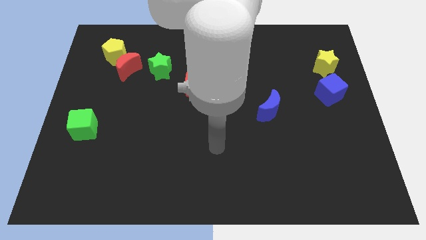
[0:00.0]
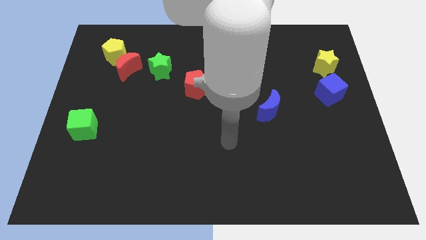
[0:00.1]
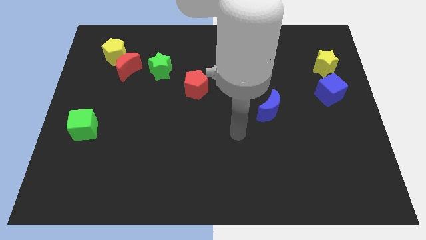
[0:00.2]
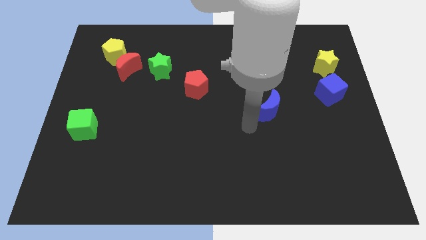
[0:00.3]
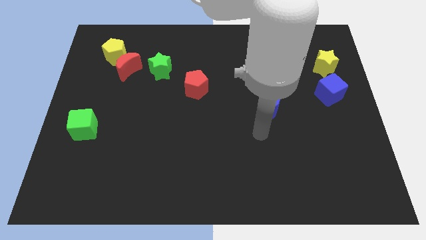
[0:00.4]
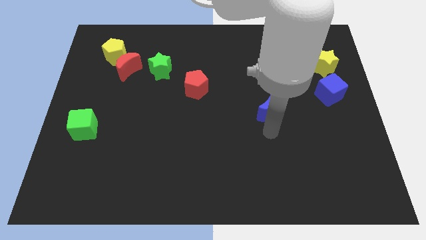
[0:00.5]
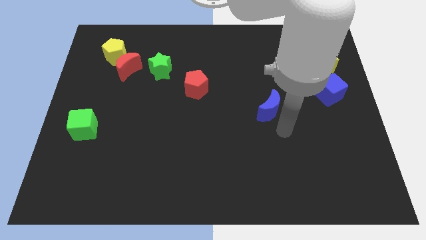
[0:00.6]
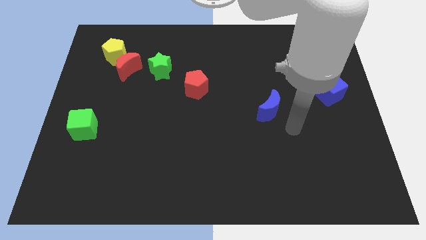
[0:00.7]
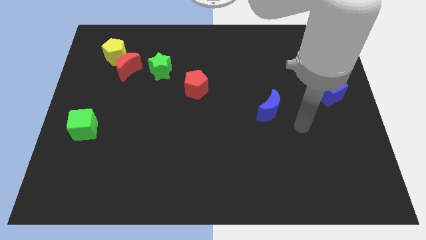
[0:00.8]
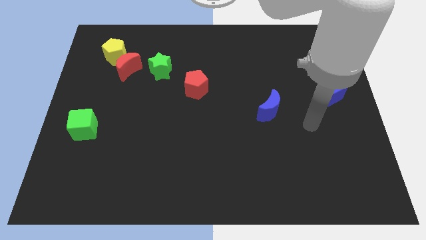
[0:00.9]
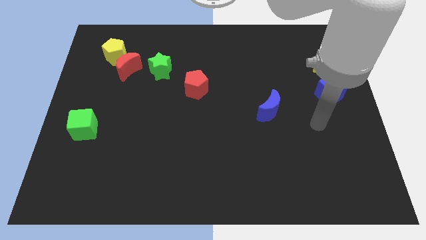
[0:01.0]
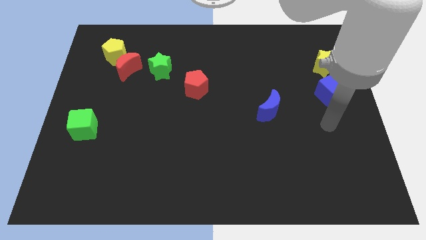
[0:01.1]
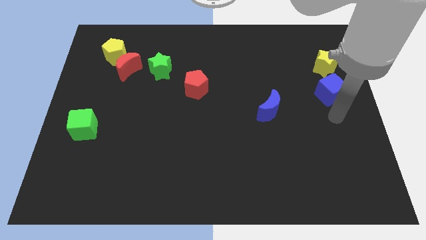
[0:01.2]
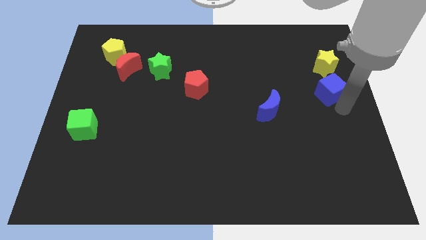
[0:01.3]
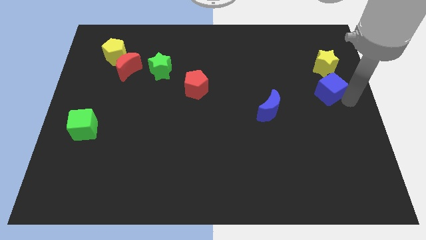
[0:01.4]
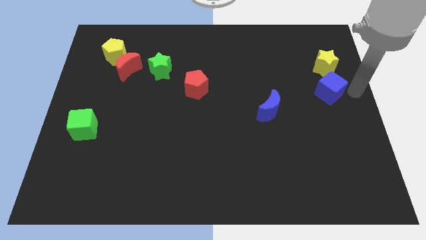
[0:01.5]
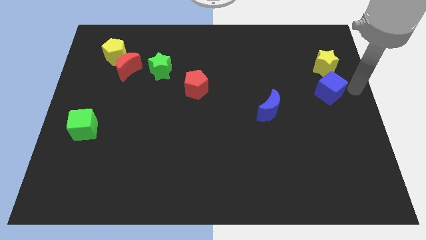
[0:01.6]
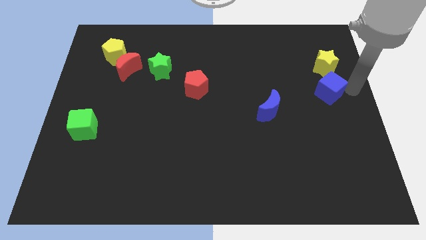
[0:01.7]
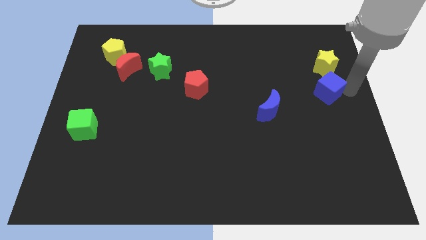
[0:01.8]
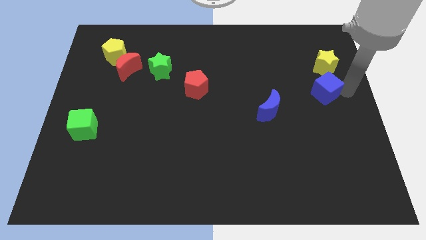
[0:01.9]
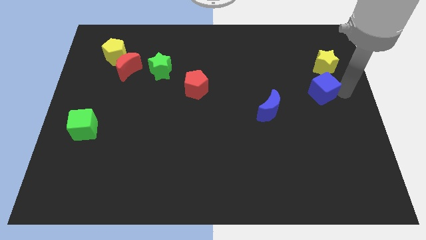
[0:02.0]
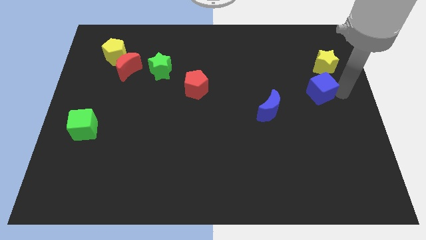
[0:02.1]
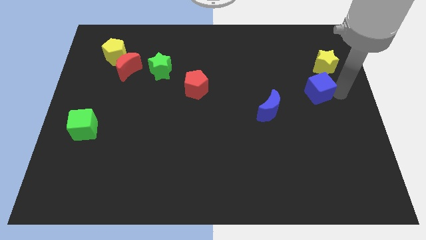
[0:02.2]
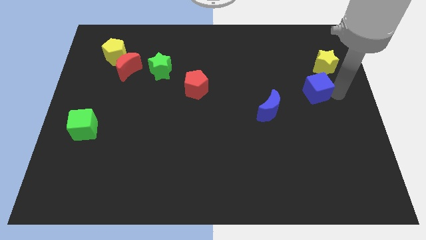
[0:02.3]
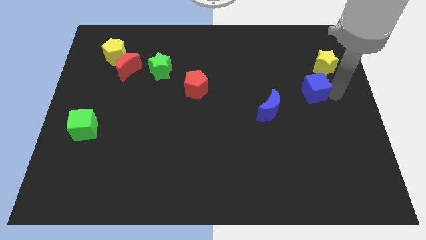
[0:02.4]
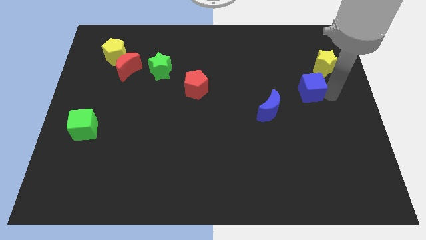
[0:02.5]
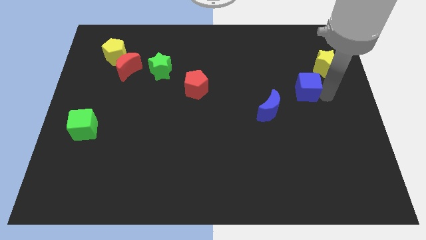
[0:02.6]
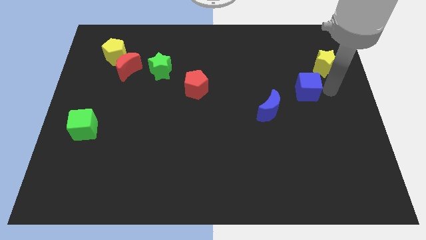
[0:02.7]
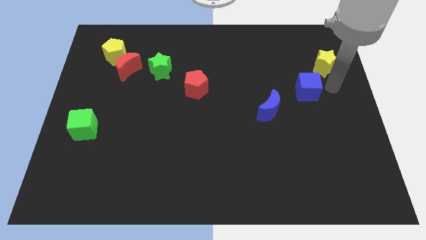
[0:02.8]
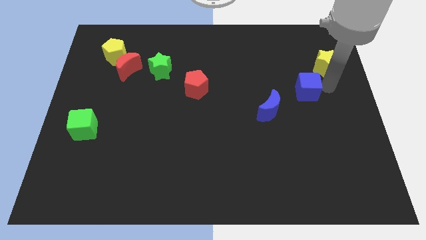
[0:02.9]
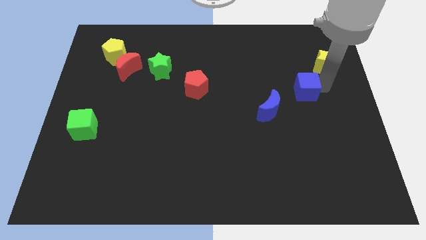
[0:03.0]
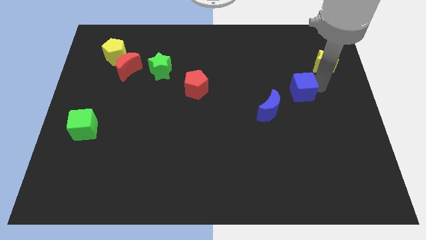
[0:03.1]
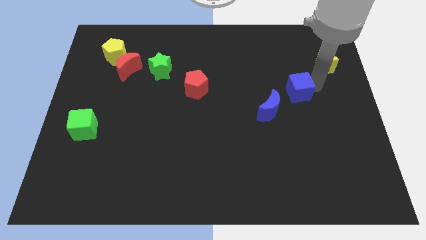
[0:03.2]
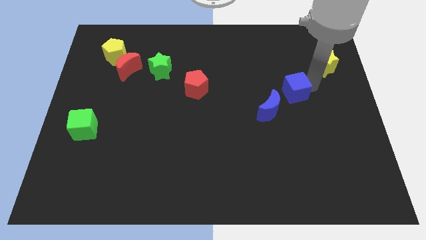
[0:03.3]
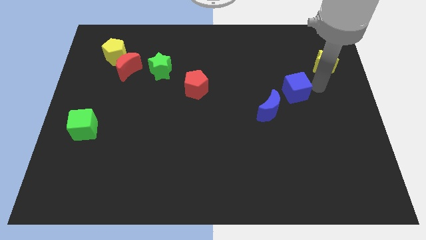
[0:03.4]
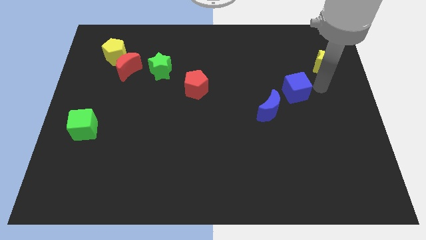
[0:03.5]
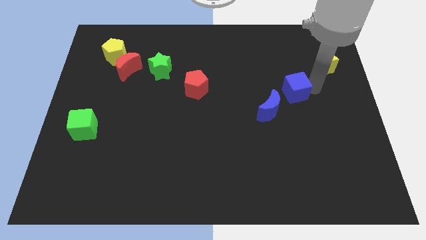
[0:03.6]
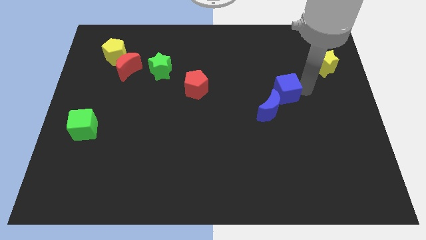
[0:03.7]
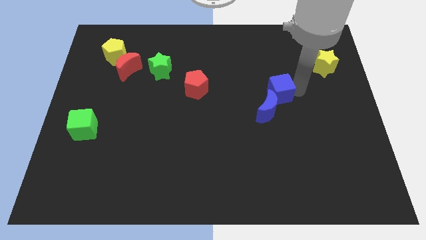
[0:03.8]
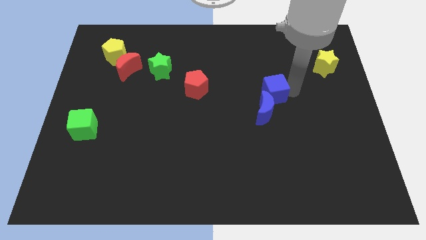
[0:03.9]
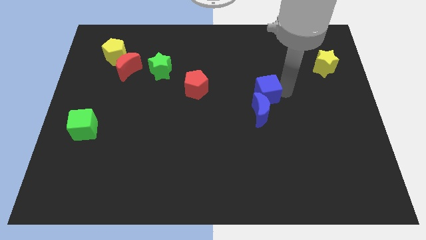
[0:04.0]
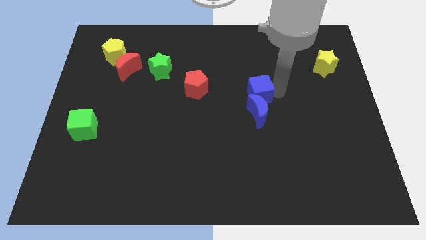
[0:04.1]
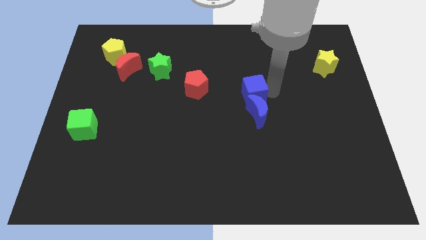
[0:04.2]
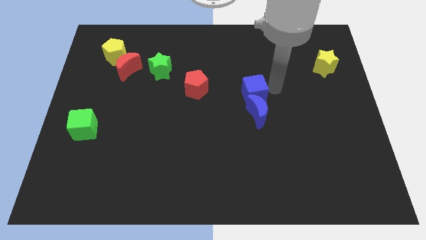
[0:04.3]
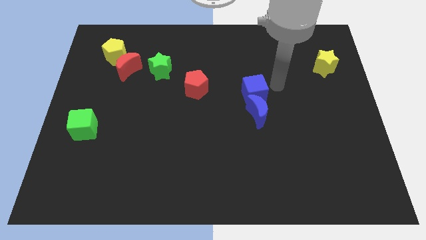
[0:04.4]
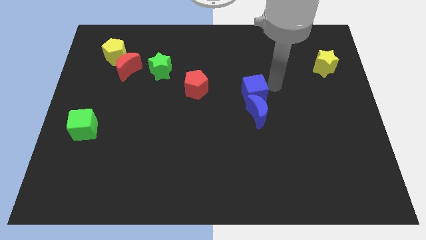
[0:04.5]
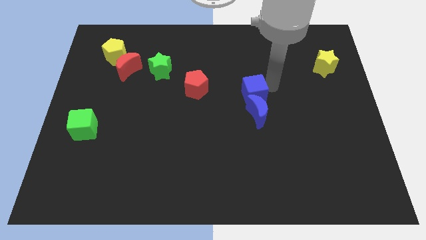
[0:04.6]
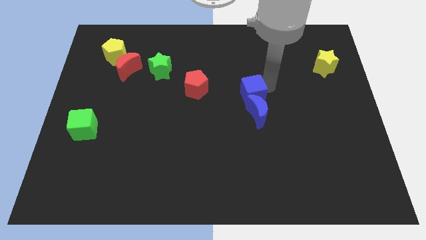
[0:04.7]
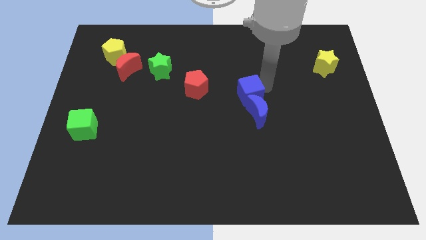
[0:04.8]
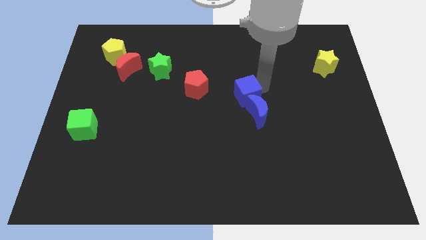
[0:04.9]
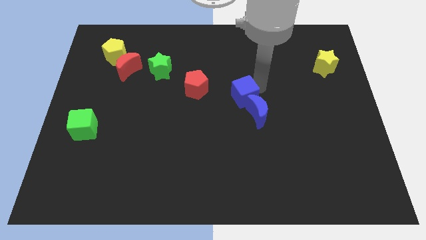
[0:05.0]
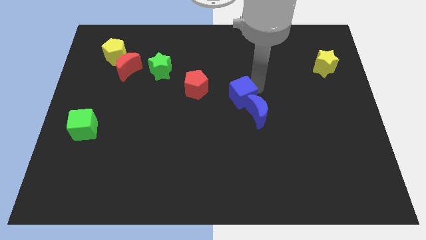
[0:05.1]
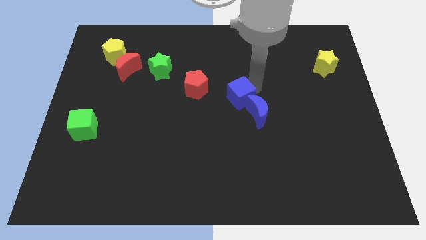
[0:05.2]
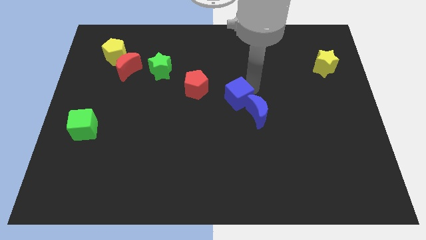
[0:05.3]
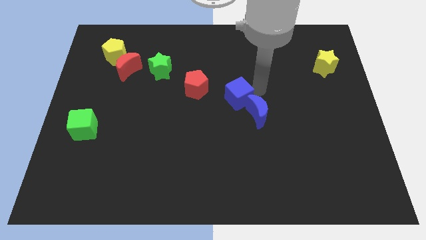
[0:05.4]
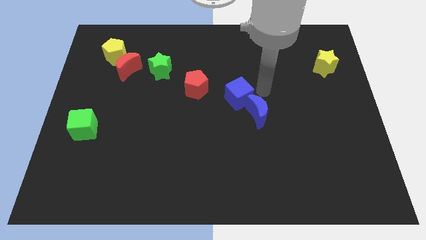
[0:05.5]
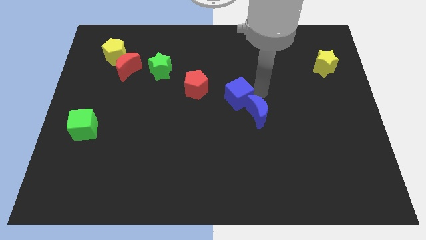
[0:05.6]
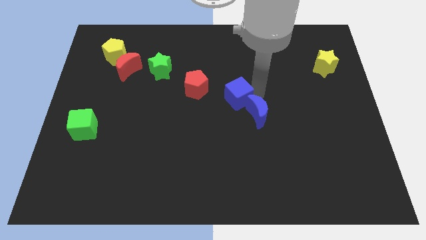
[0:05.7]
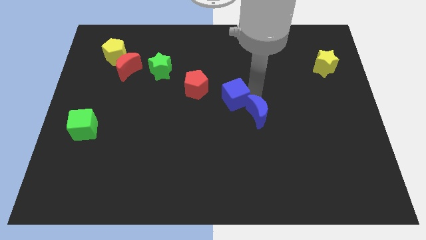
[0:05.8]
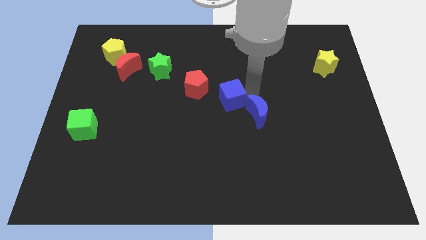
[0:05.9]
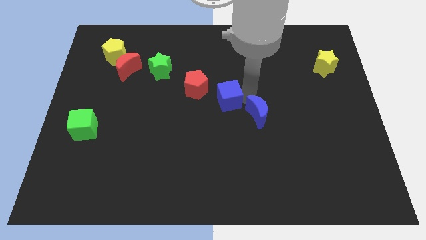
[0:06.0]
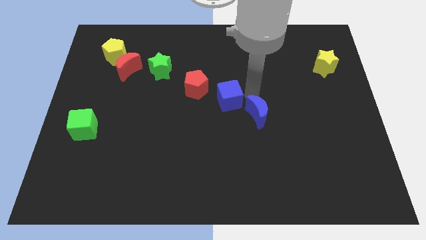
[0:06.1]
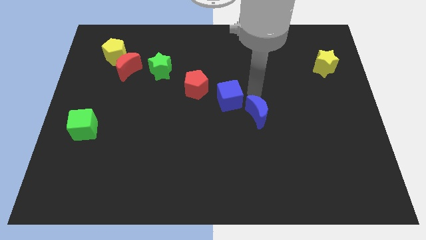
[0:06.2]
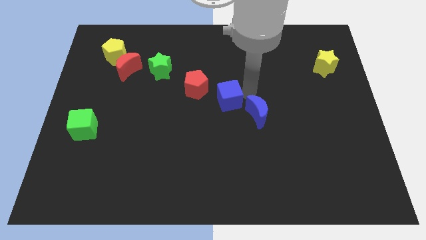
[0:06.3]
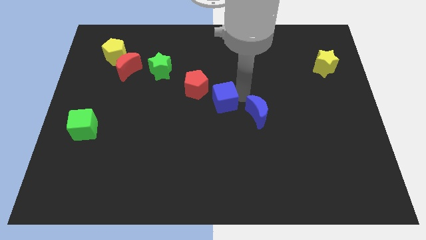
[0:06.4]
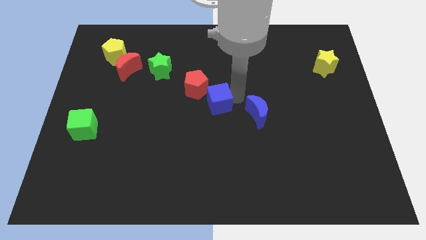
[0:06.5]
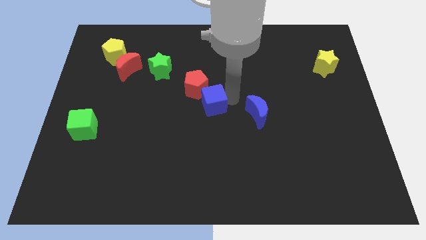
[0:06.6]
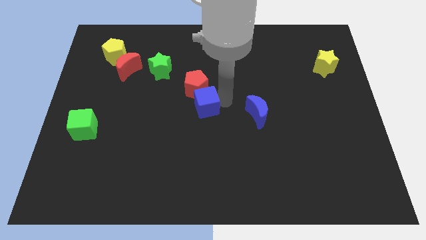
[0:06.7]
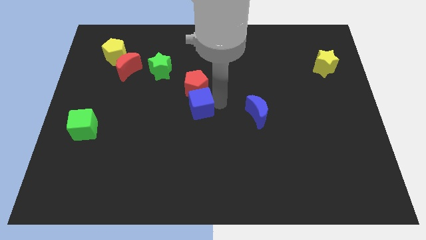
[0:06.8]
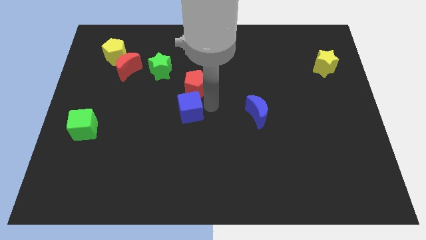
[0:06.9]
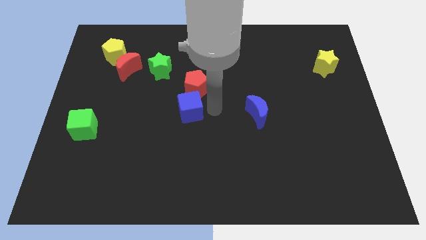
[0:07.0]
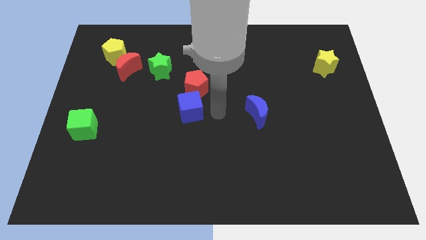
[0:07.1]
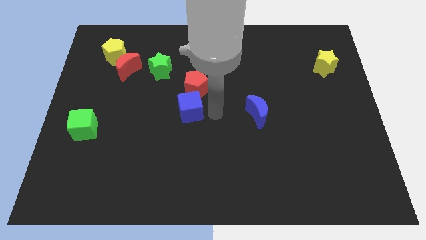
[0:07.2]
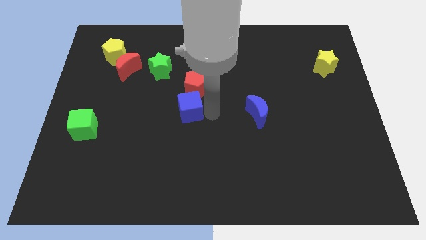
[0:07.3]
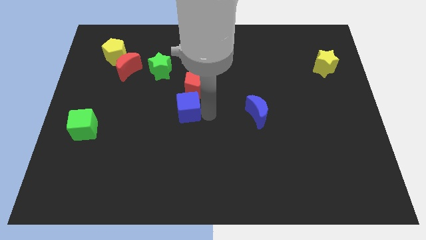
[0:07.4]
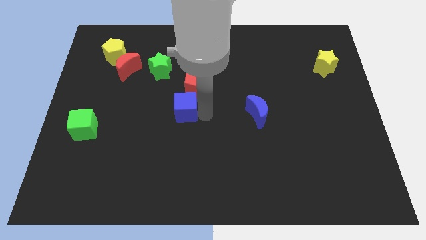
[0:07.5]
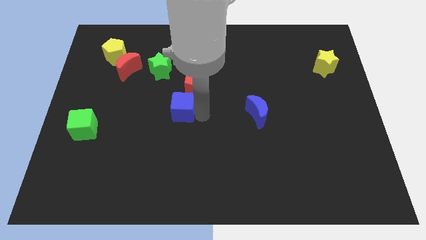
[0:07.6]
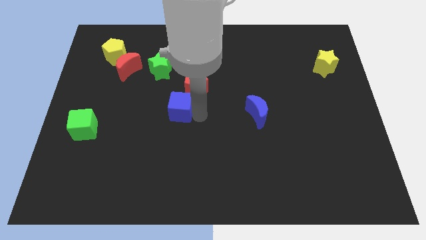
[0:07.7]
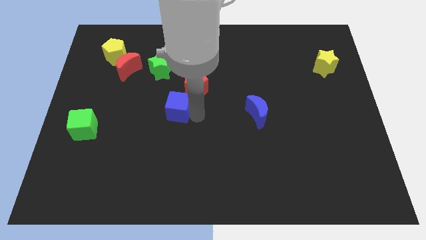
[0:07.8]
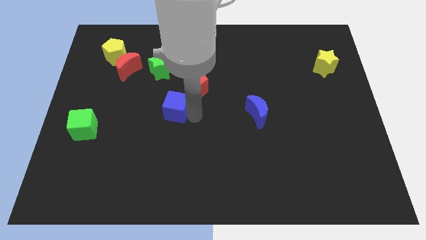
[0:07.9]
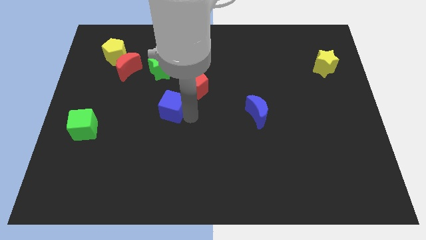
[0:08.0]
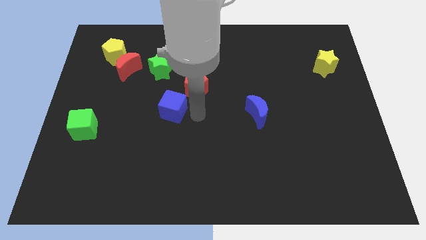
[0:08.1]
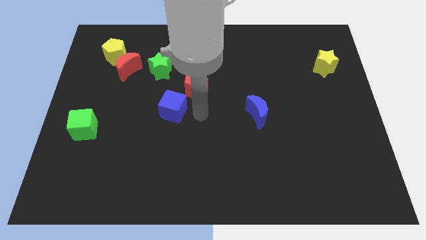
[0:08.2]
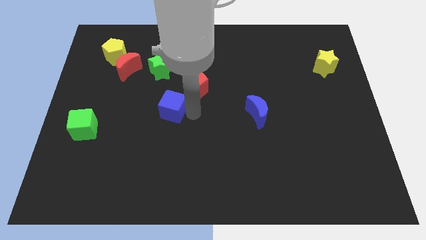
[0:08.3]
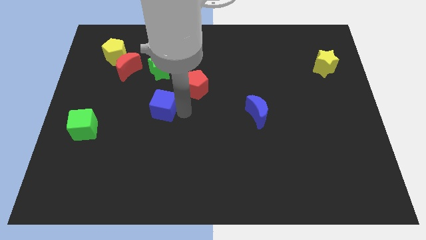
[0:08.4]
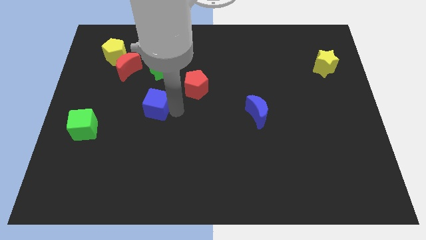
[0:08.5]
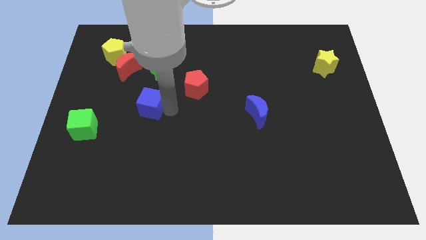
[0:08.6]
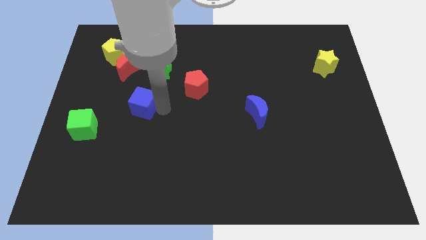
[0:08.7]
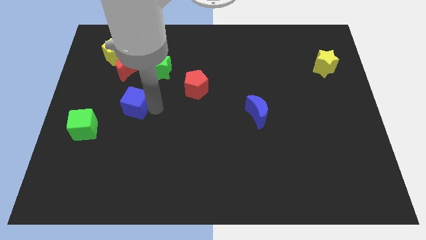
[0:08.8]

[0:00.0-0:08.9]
put the blue cube to the bottom of the red moon
